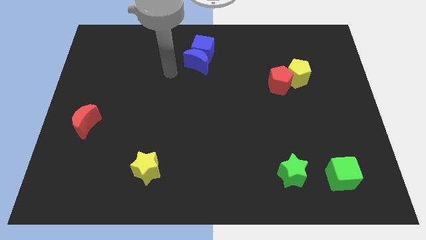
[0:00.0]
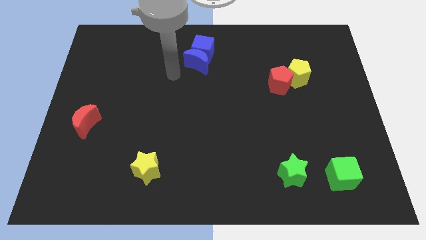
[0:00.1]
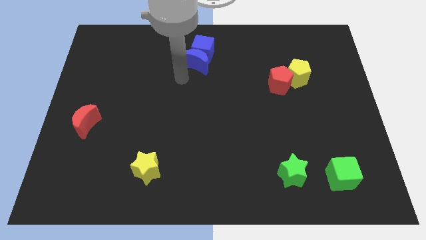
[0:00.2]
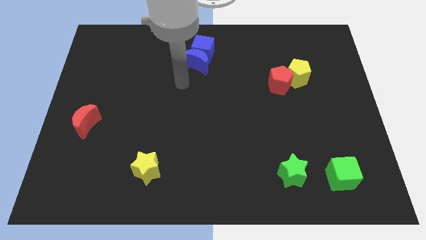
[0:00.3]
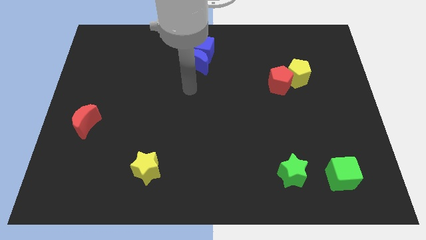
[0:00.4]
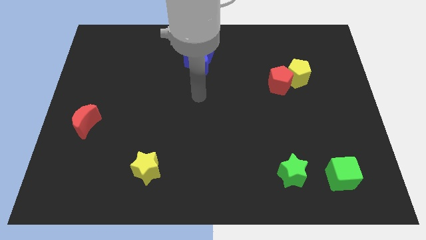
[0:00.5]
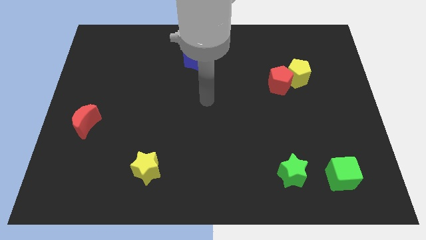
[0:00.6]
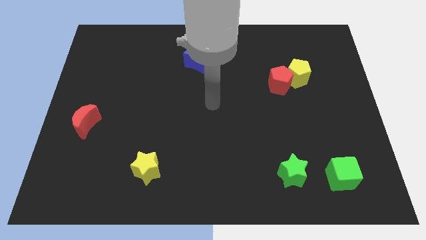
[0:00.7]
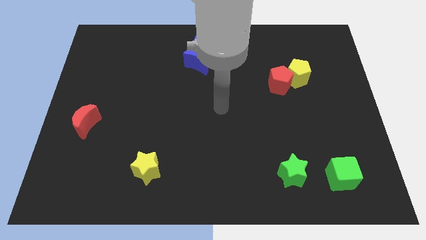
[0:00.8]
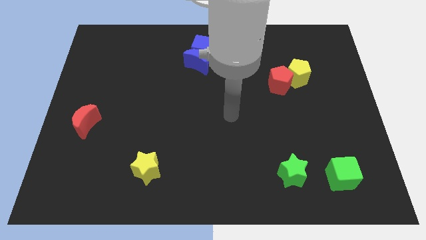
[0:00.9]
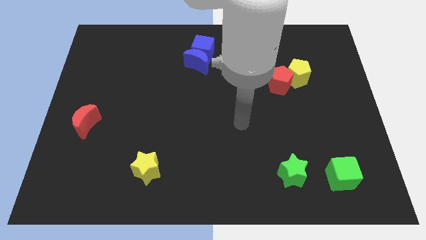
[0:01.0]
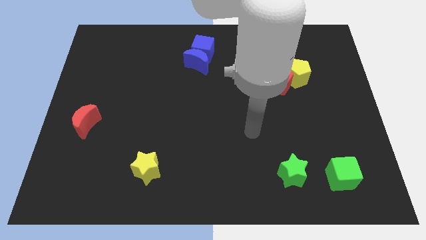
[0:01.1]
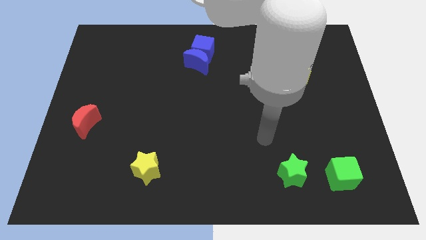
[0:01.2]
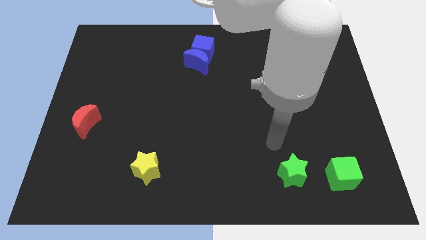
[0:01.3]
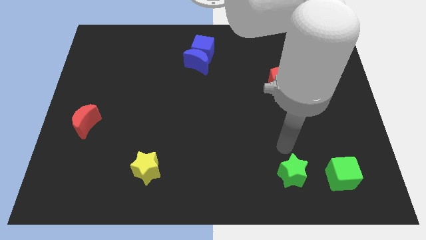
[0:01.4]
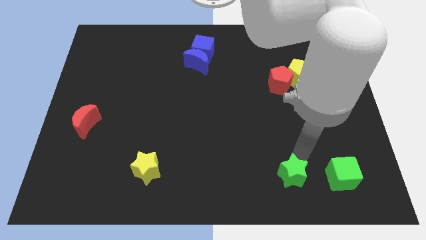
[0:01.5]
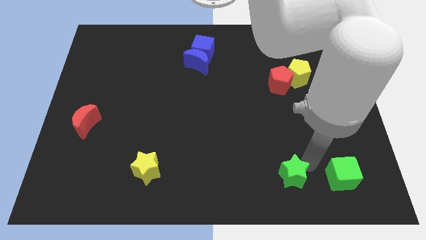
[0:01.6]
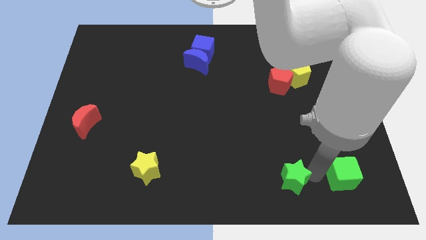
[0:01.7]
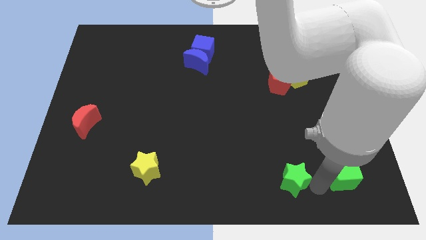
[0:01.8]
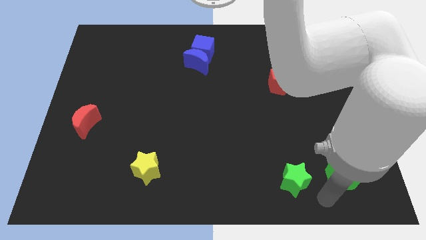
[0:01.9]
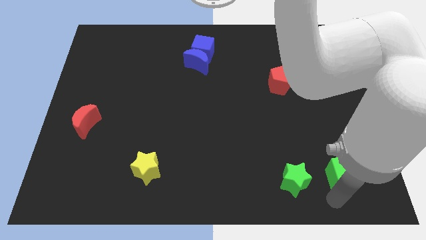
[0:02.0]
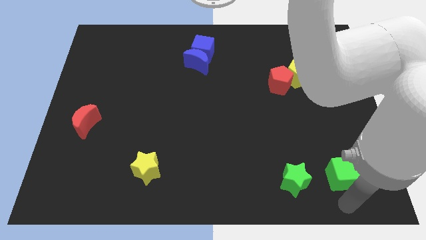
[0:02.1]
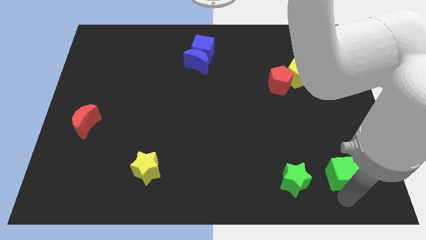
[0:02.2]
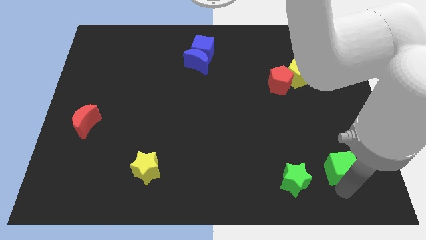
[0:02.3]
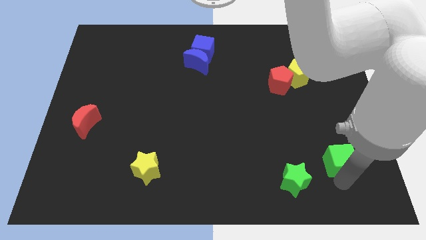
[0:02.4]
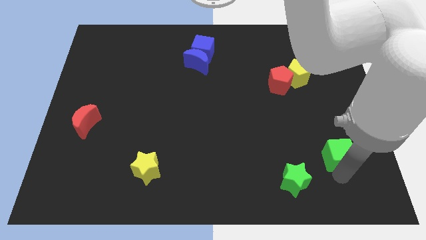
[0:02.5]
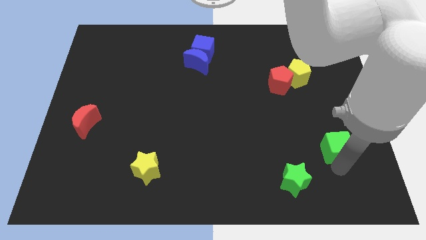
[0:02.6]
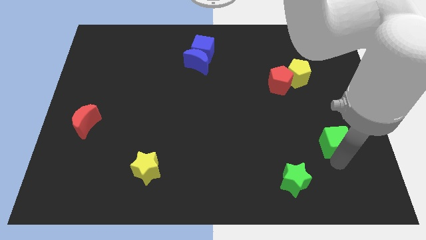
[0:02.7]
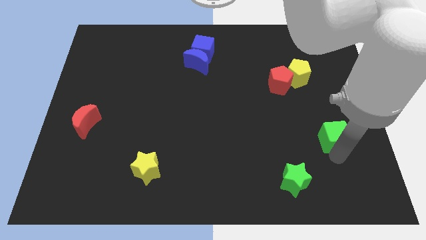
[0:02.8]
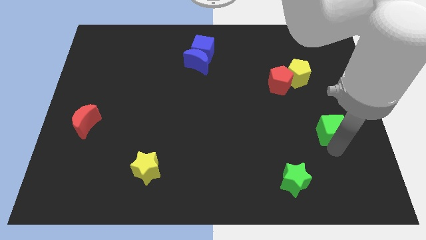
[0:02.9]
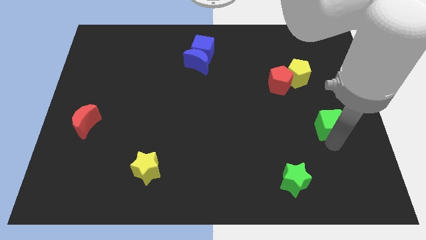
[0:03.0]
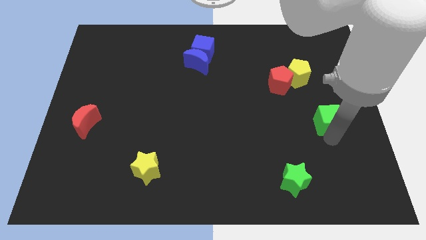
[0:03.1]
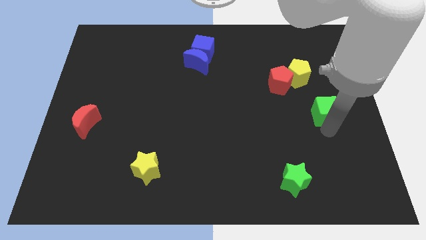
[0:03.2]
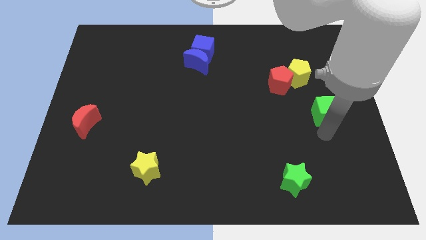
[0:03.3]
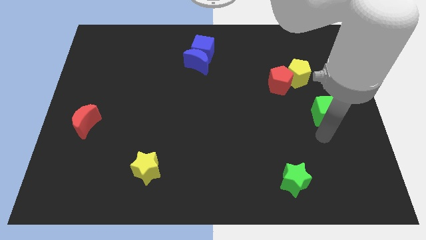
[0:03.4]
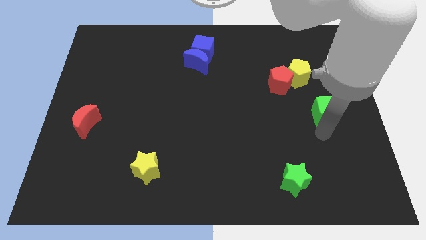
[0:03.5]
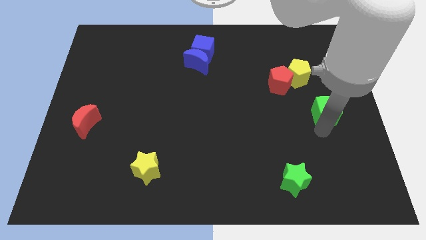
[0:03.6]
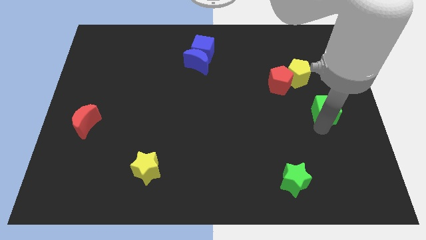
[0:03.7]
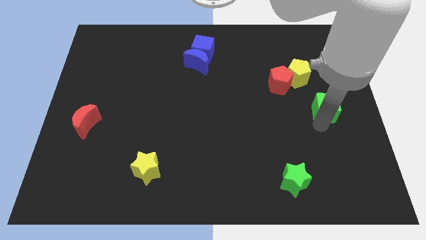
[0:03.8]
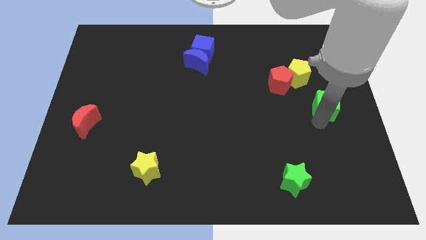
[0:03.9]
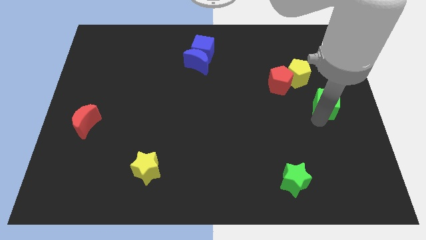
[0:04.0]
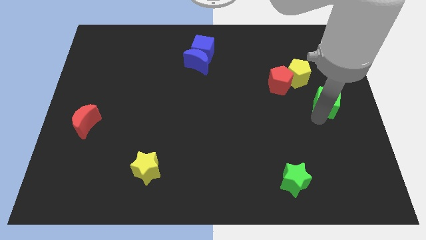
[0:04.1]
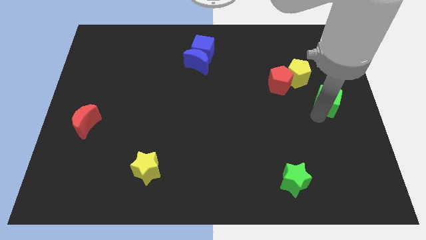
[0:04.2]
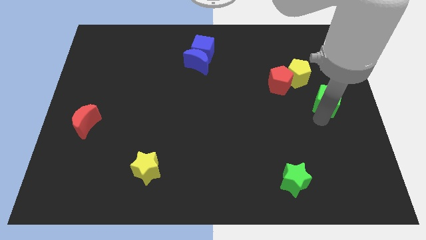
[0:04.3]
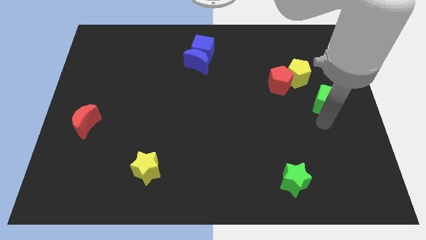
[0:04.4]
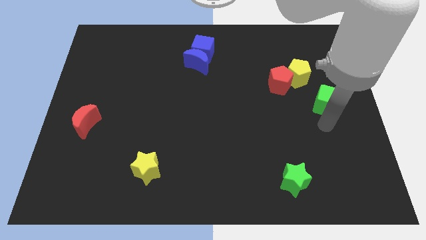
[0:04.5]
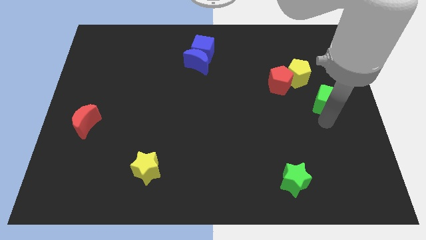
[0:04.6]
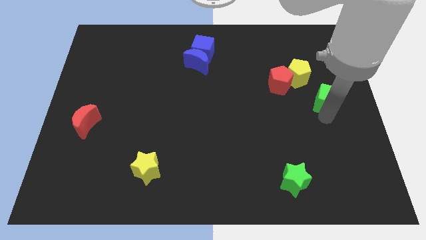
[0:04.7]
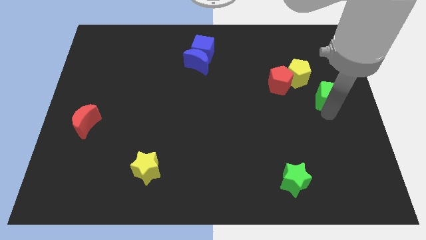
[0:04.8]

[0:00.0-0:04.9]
push the green cube upwards

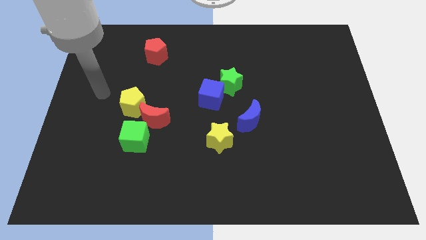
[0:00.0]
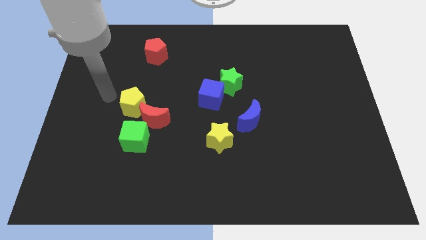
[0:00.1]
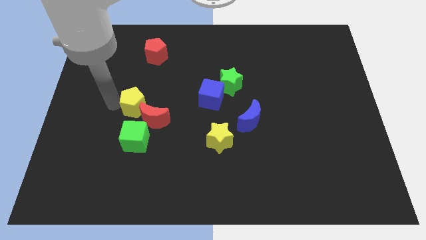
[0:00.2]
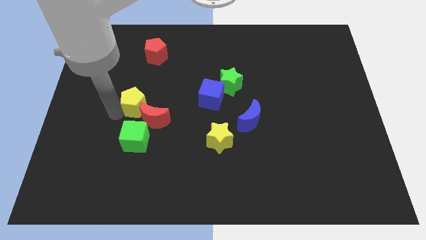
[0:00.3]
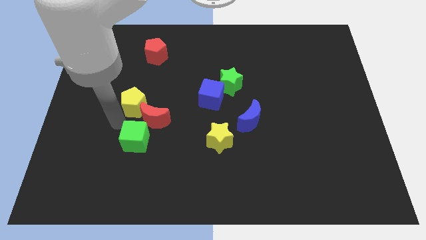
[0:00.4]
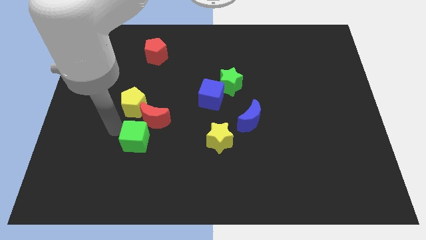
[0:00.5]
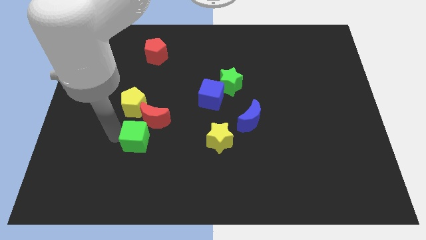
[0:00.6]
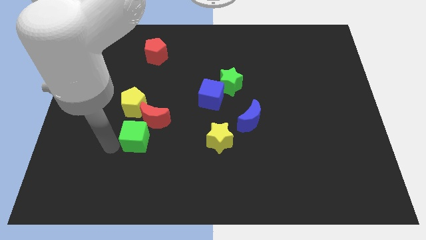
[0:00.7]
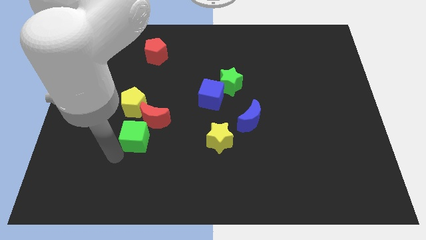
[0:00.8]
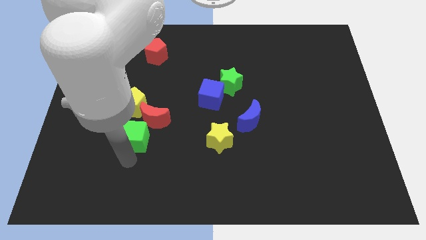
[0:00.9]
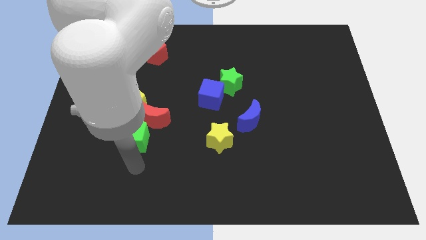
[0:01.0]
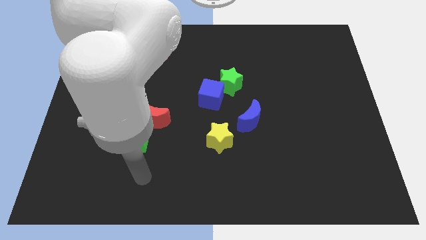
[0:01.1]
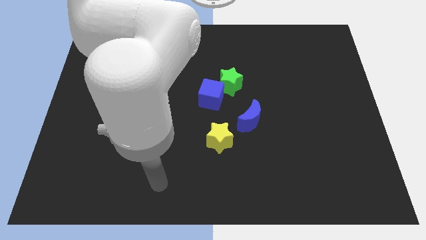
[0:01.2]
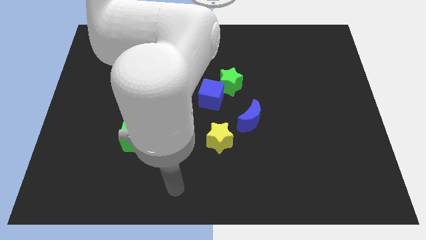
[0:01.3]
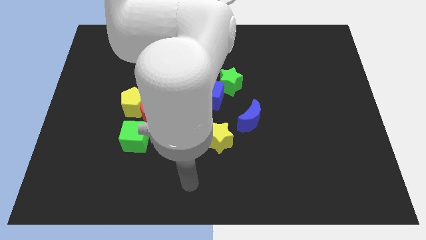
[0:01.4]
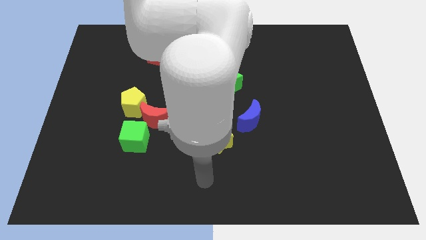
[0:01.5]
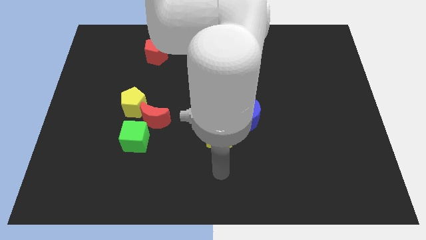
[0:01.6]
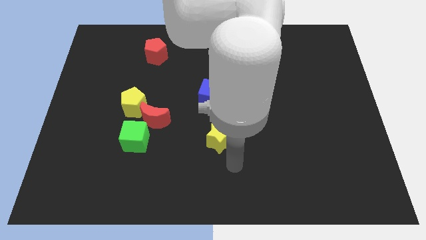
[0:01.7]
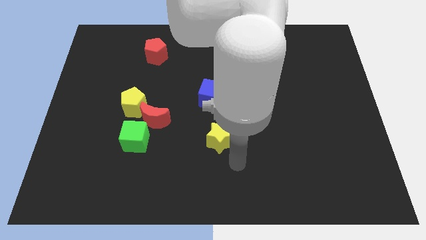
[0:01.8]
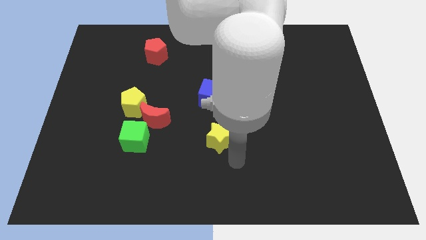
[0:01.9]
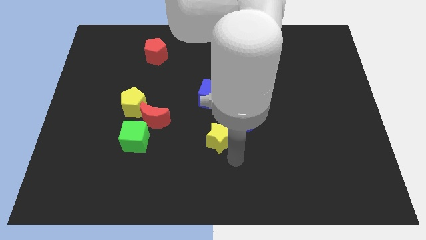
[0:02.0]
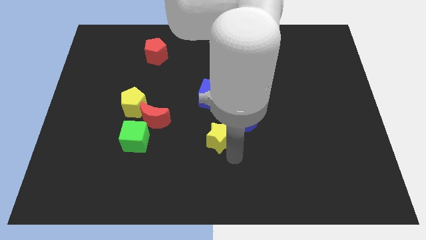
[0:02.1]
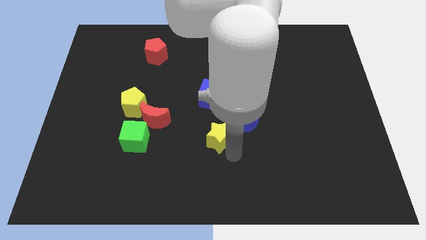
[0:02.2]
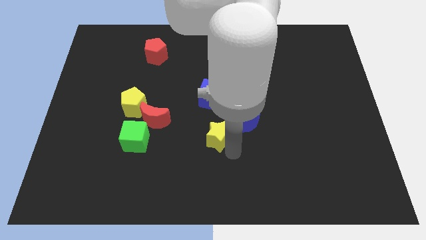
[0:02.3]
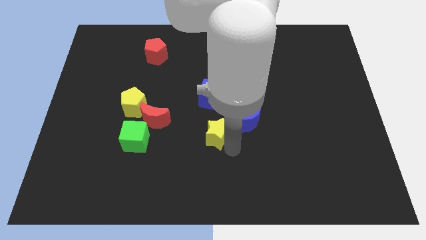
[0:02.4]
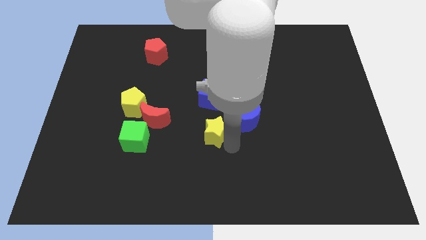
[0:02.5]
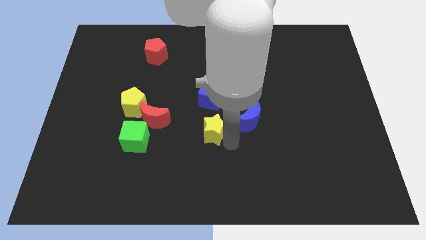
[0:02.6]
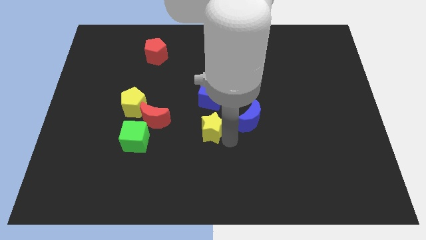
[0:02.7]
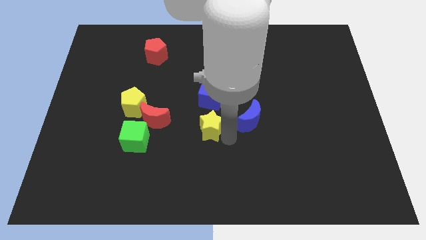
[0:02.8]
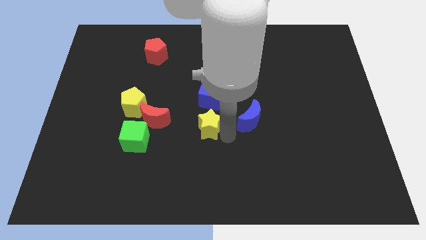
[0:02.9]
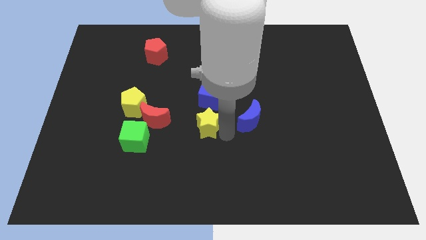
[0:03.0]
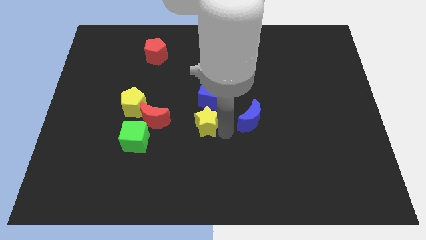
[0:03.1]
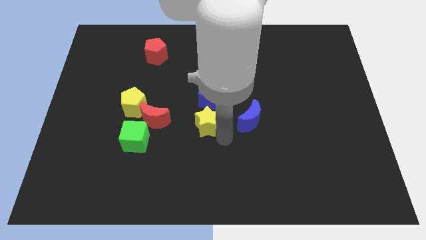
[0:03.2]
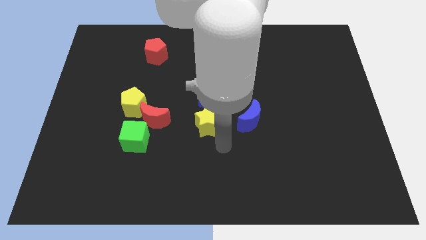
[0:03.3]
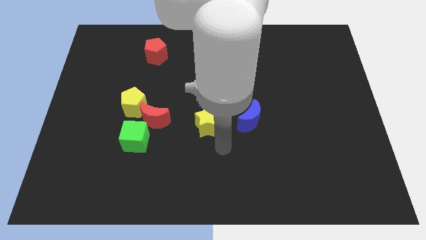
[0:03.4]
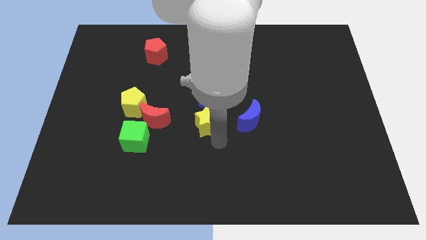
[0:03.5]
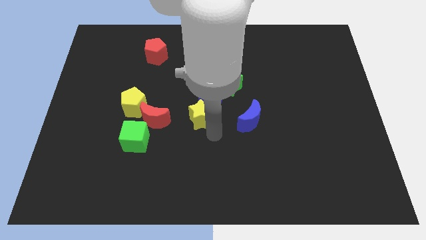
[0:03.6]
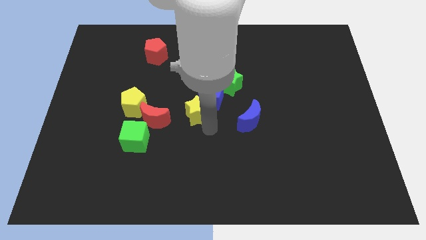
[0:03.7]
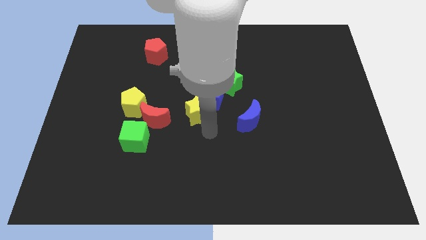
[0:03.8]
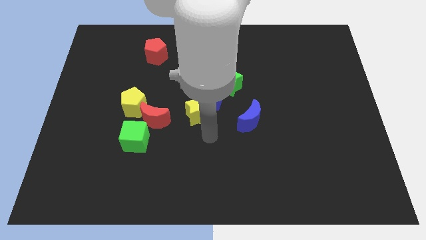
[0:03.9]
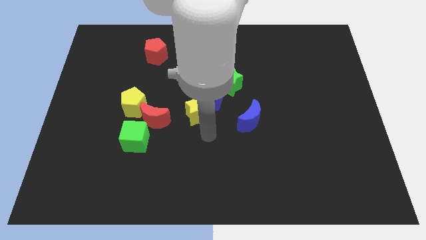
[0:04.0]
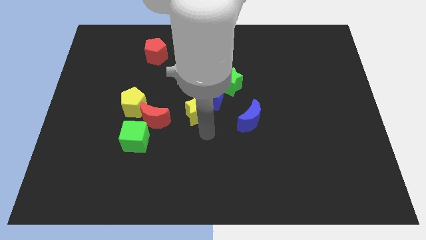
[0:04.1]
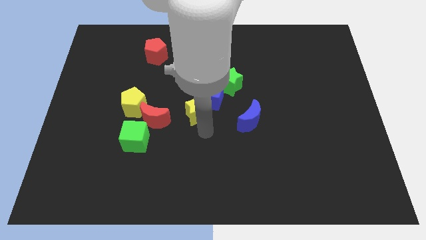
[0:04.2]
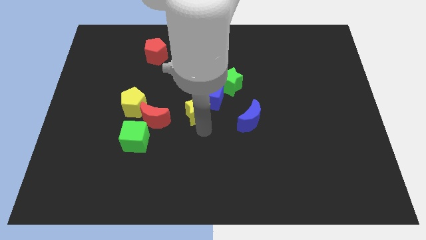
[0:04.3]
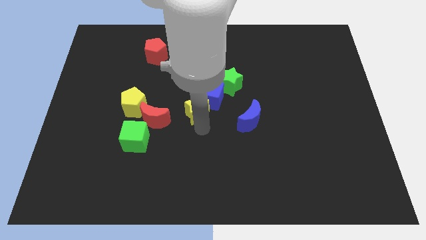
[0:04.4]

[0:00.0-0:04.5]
move the yellow star upwards a little bit
